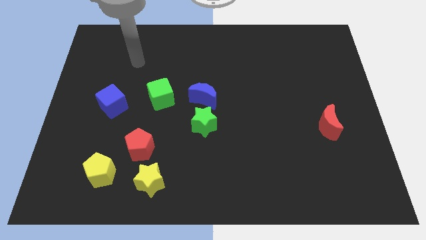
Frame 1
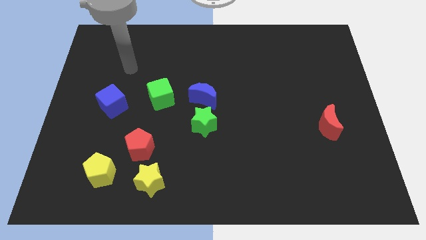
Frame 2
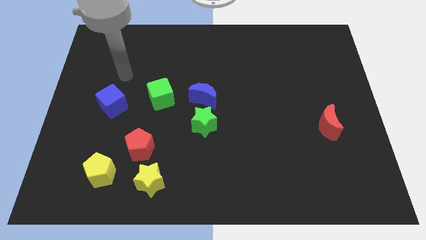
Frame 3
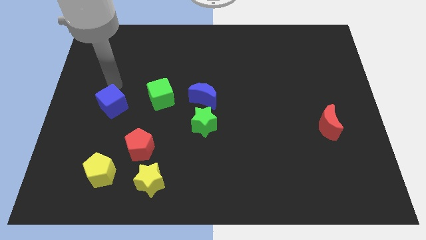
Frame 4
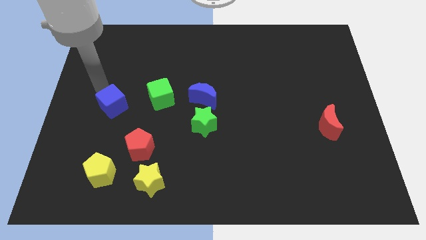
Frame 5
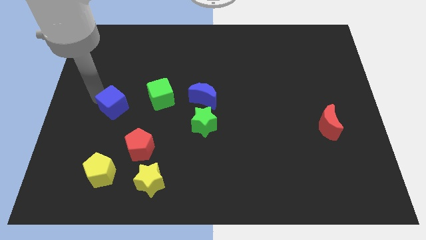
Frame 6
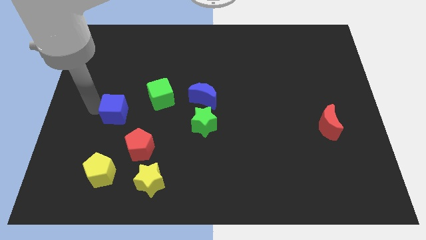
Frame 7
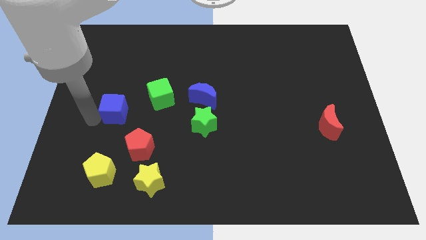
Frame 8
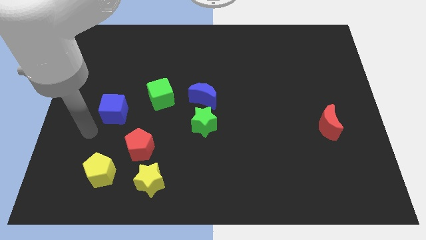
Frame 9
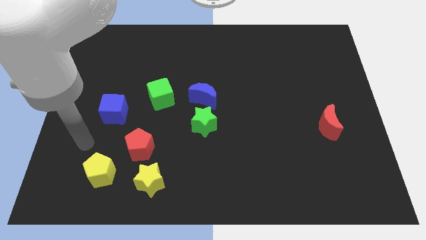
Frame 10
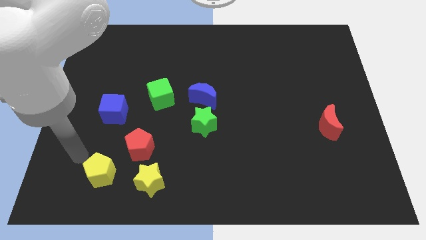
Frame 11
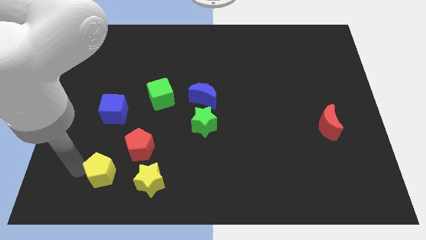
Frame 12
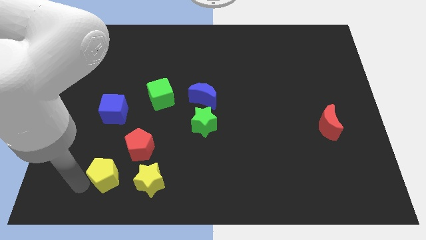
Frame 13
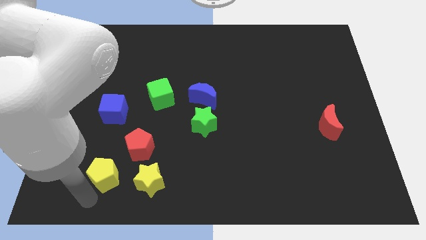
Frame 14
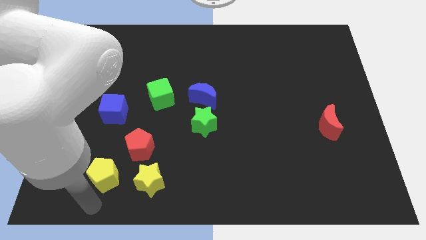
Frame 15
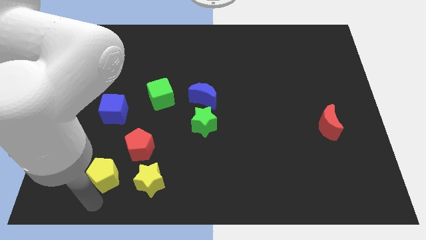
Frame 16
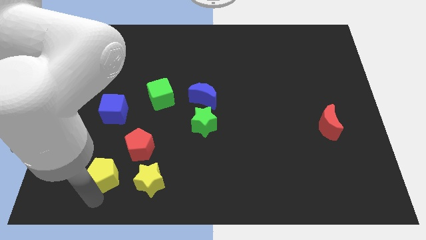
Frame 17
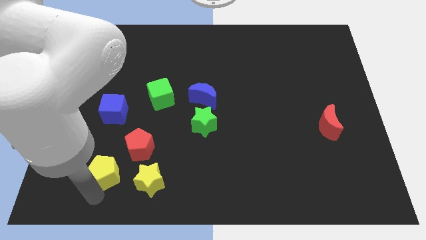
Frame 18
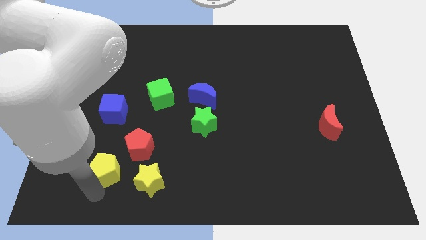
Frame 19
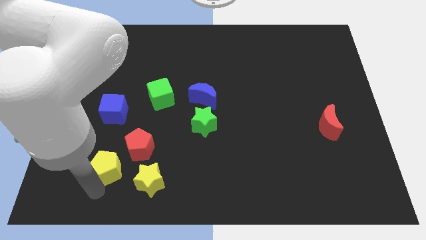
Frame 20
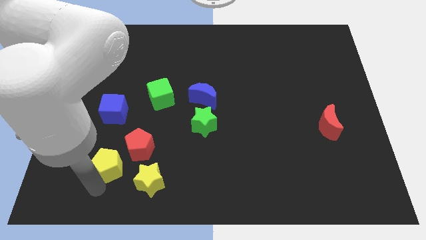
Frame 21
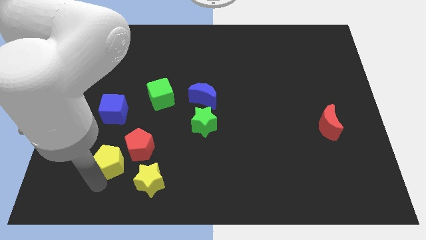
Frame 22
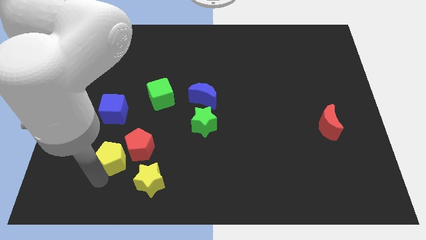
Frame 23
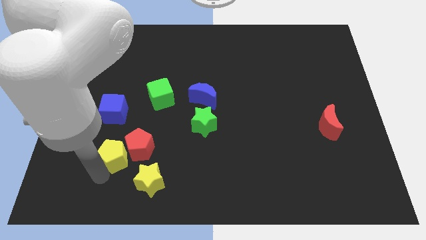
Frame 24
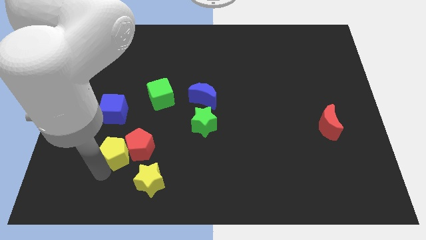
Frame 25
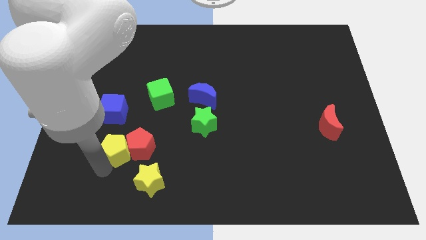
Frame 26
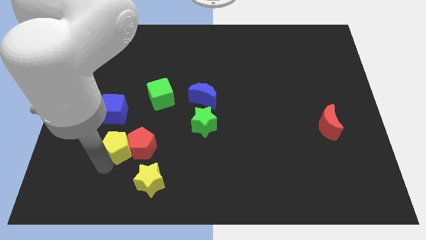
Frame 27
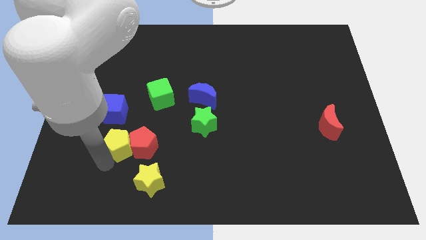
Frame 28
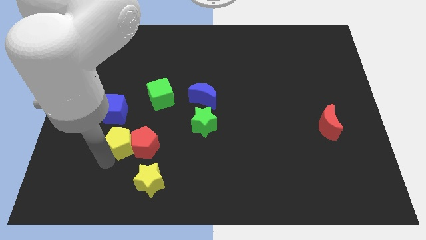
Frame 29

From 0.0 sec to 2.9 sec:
slightly push the yellow pentagon up and then right

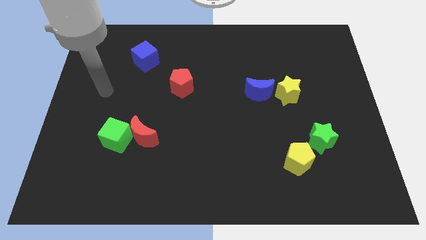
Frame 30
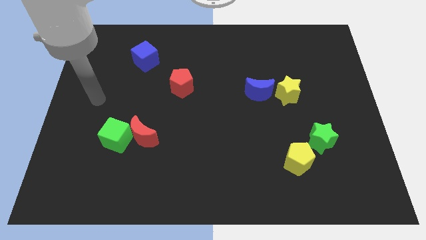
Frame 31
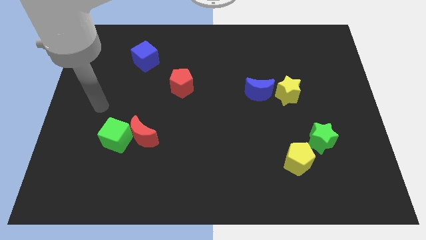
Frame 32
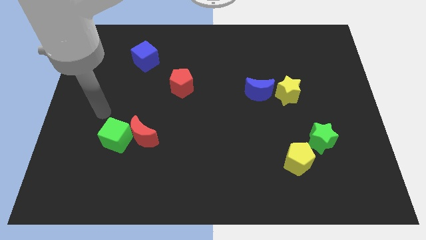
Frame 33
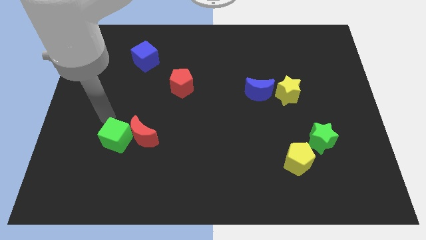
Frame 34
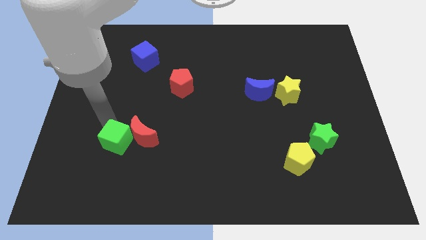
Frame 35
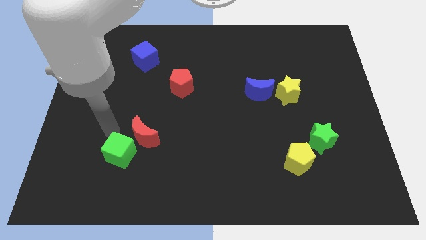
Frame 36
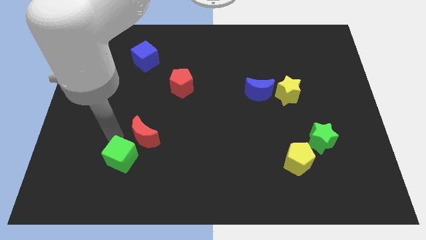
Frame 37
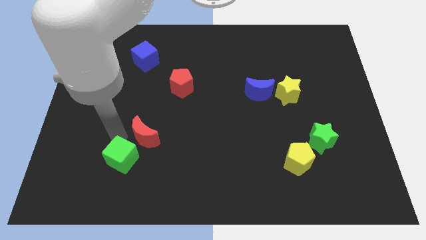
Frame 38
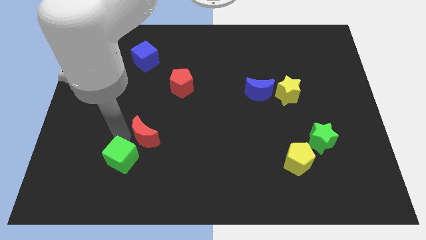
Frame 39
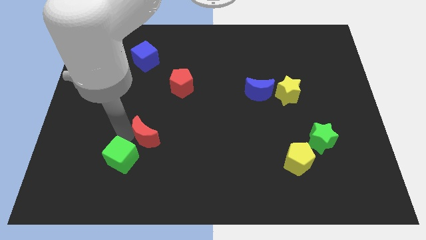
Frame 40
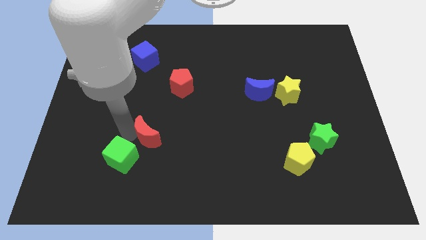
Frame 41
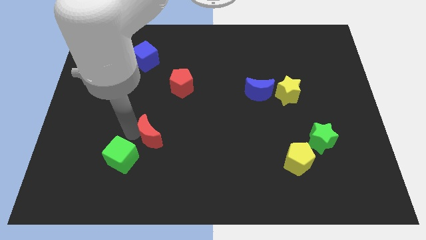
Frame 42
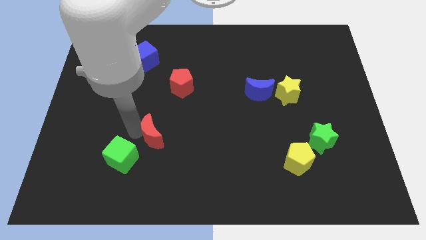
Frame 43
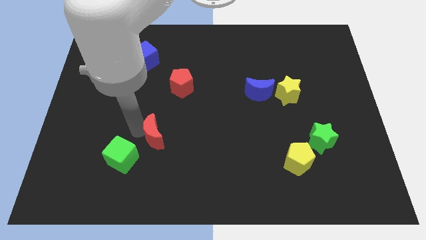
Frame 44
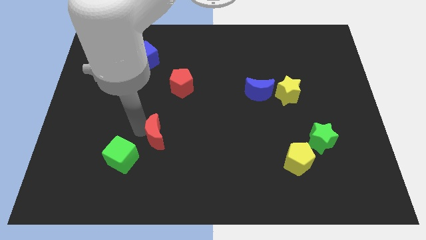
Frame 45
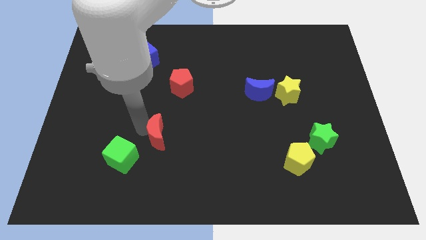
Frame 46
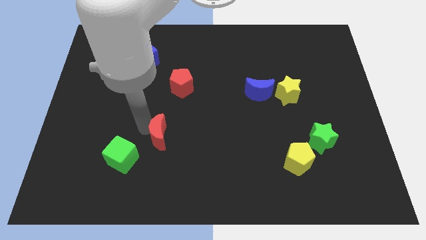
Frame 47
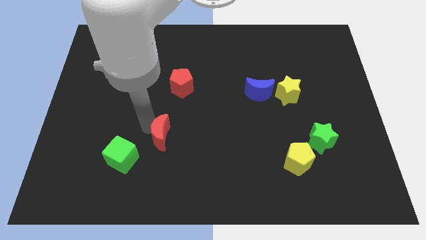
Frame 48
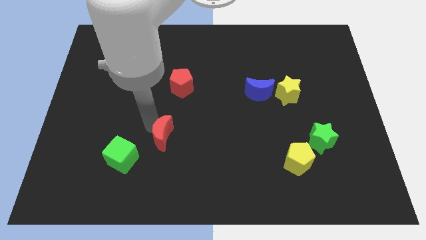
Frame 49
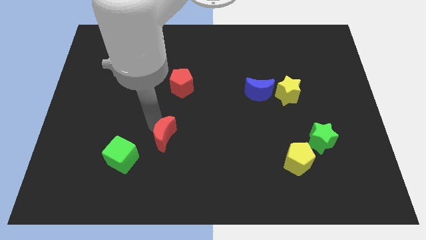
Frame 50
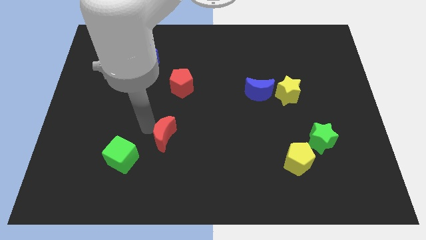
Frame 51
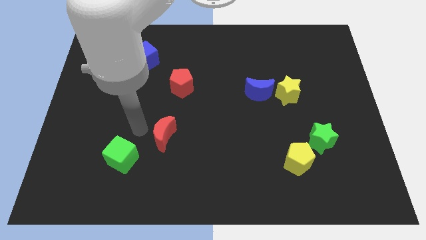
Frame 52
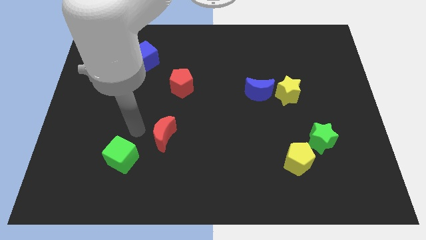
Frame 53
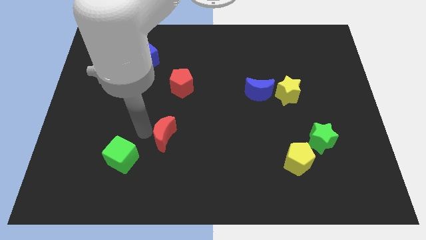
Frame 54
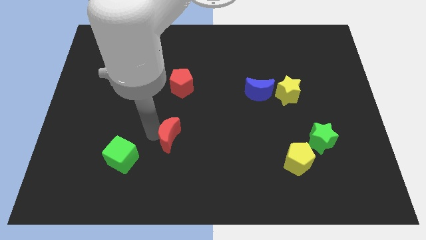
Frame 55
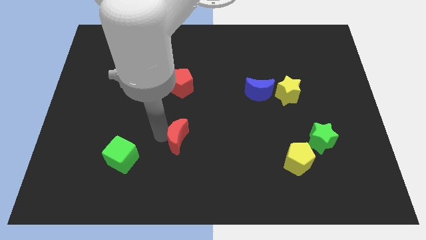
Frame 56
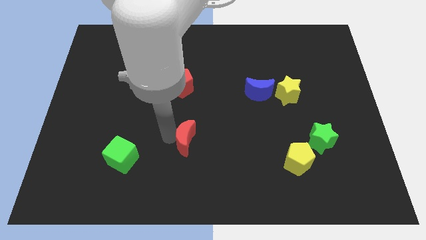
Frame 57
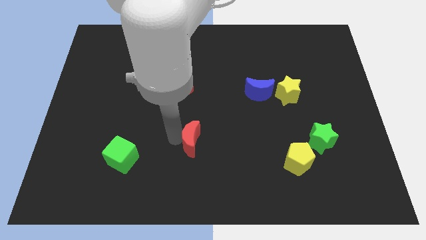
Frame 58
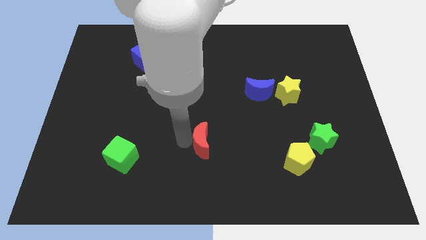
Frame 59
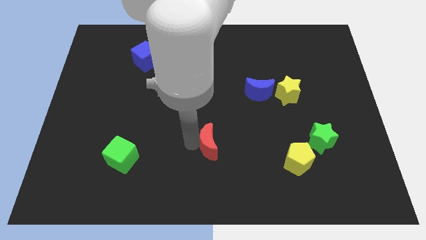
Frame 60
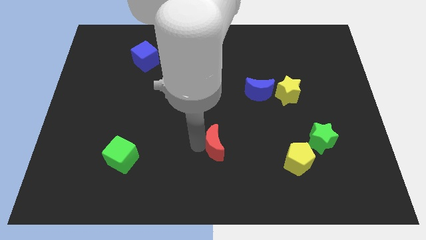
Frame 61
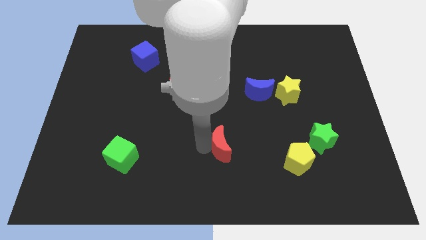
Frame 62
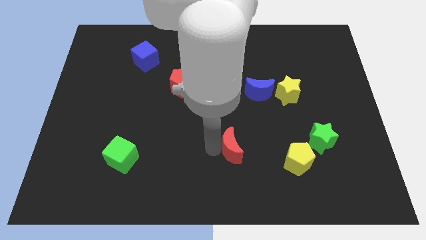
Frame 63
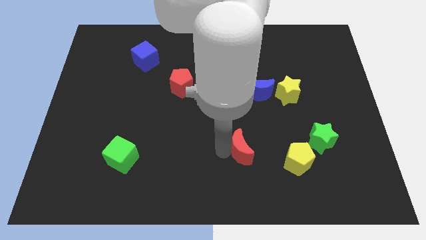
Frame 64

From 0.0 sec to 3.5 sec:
slide the red moon to the right

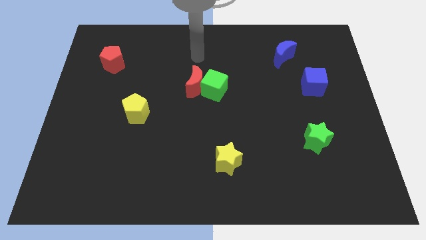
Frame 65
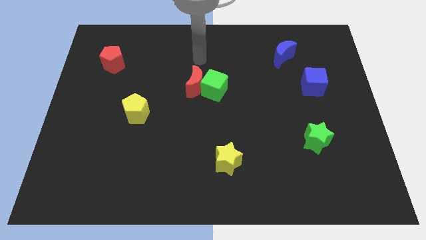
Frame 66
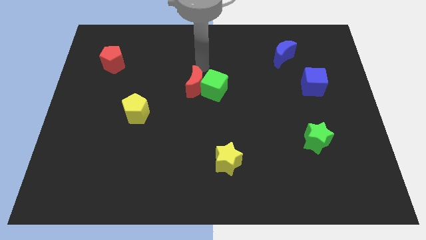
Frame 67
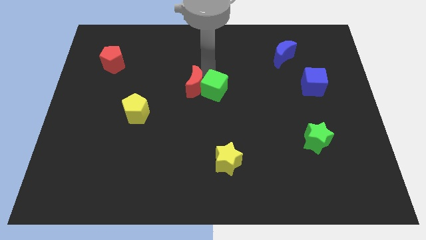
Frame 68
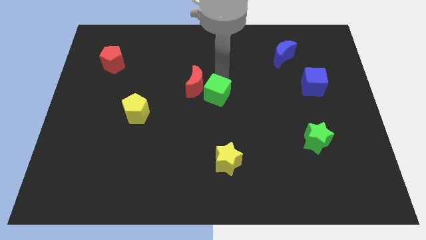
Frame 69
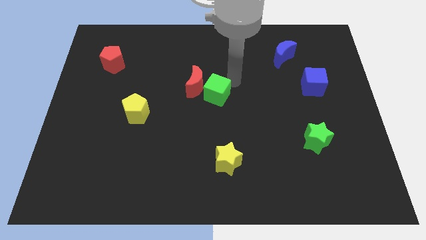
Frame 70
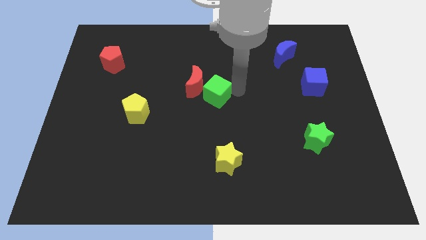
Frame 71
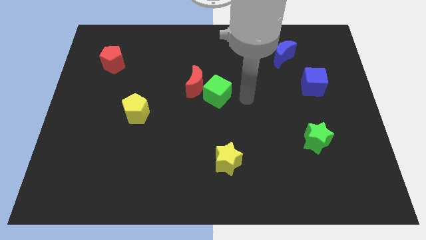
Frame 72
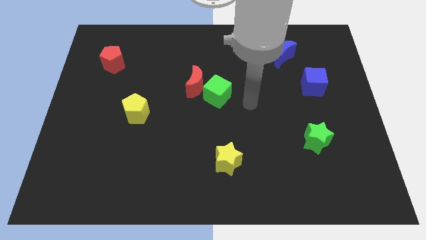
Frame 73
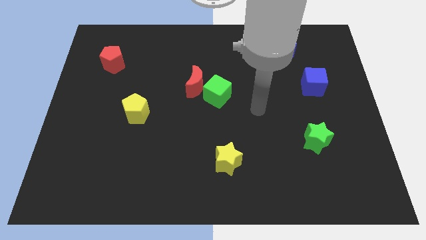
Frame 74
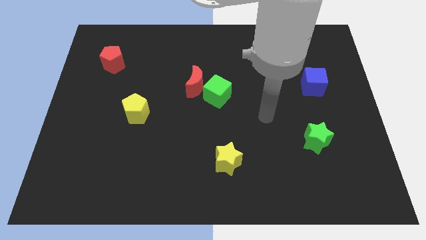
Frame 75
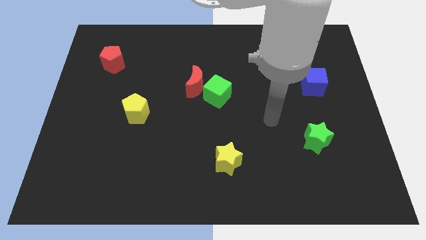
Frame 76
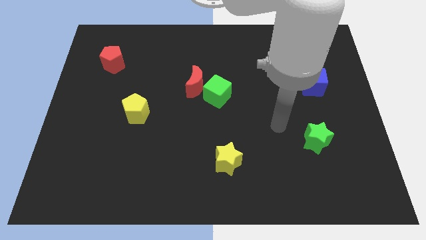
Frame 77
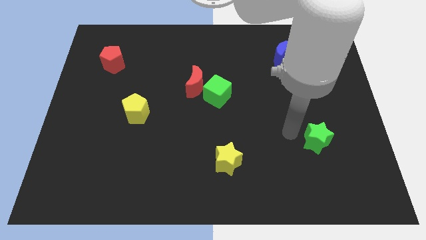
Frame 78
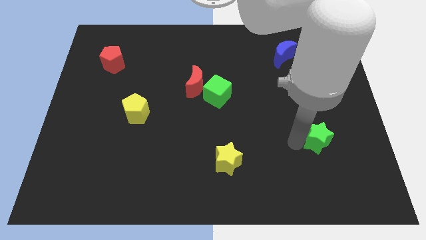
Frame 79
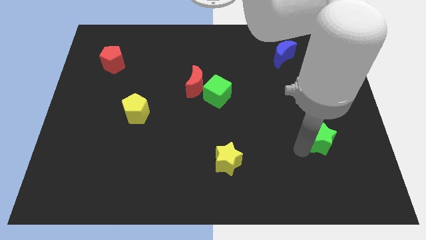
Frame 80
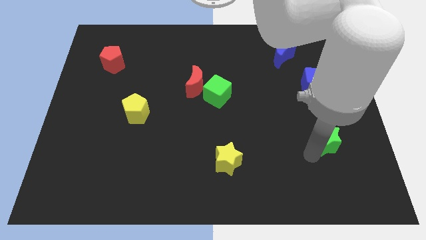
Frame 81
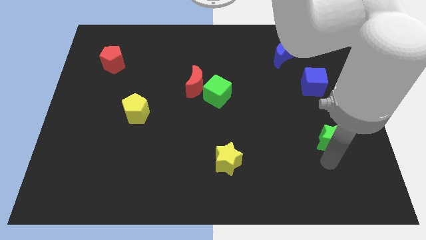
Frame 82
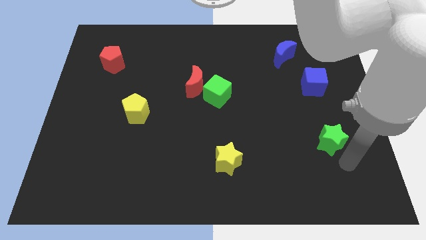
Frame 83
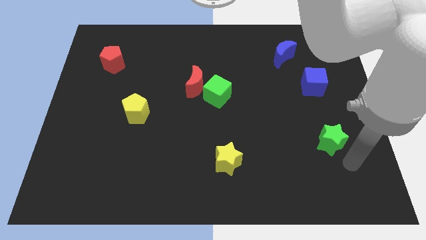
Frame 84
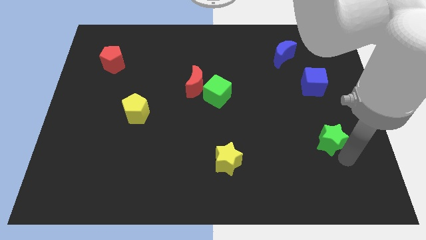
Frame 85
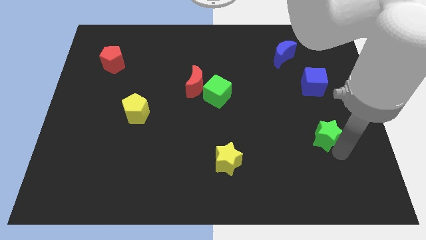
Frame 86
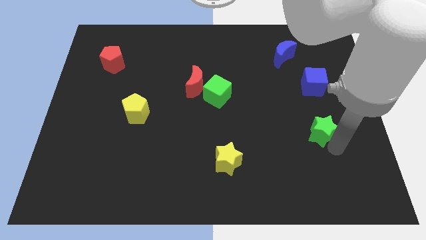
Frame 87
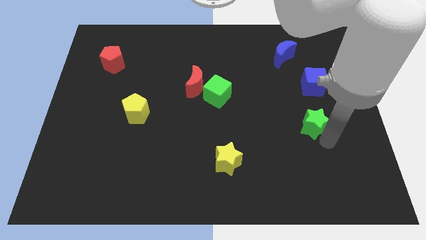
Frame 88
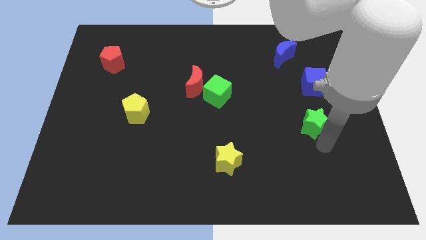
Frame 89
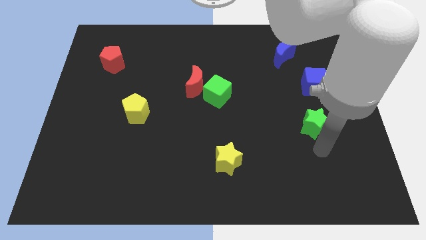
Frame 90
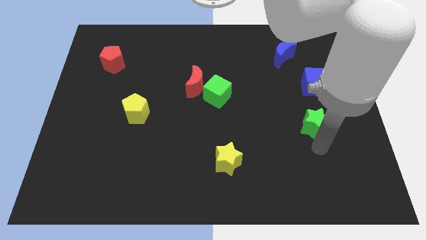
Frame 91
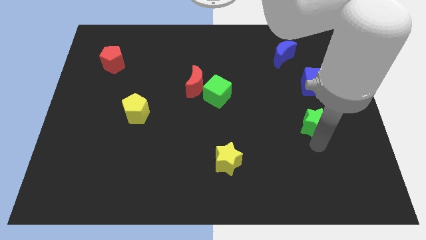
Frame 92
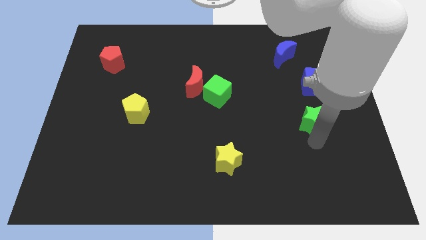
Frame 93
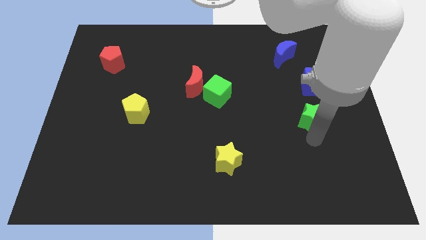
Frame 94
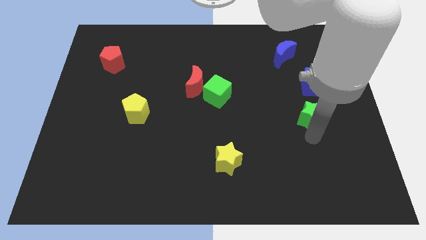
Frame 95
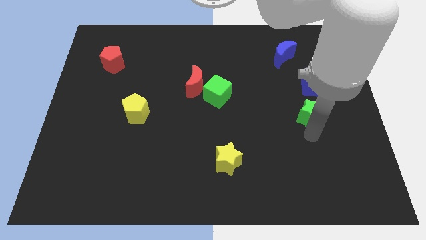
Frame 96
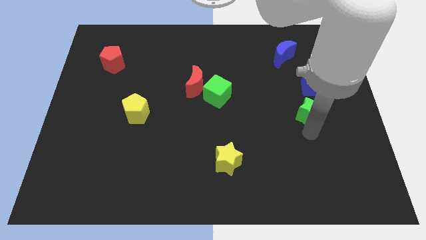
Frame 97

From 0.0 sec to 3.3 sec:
slightly push the green star up
